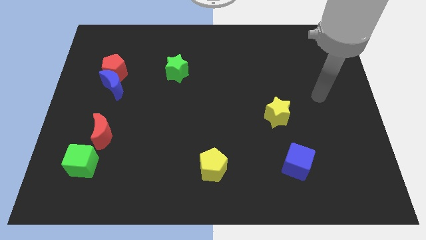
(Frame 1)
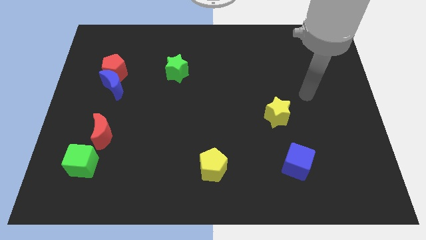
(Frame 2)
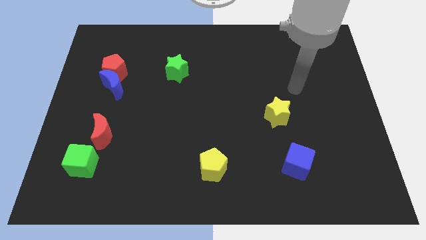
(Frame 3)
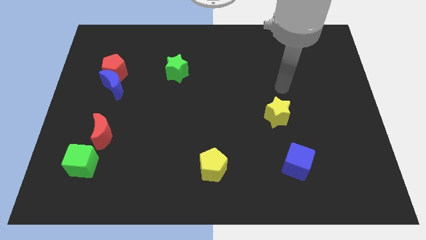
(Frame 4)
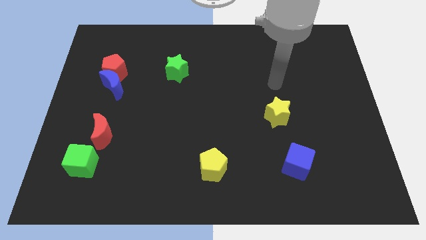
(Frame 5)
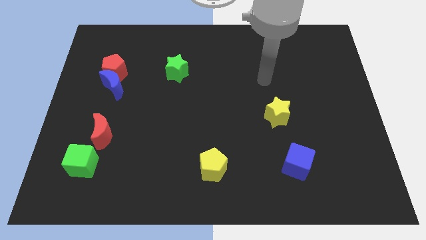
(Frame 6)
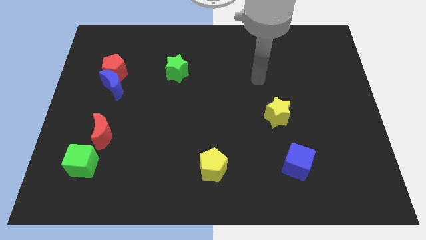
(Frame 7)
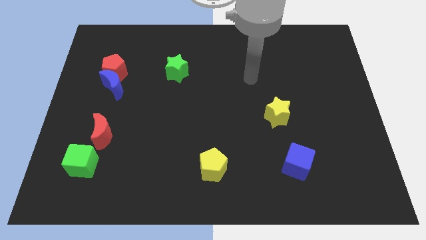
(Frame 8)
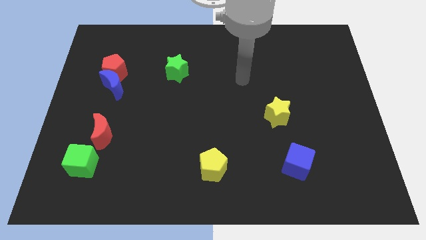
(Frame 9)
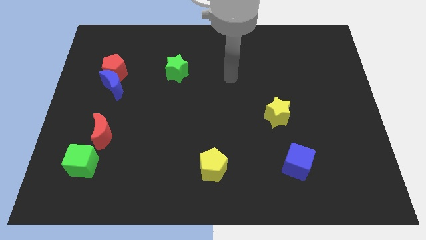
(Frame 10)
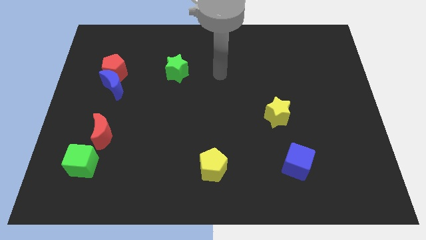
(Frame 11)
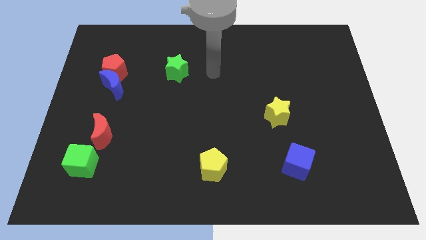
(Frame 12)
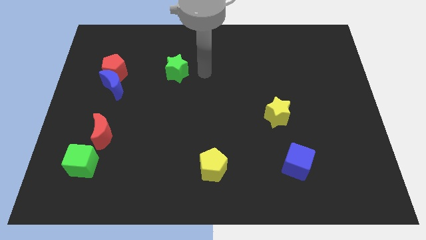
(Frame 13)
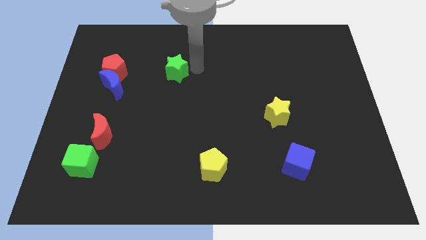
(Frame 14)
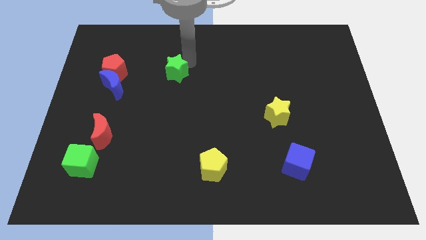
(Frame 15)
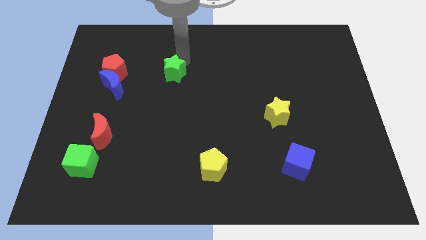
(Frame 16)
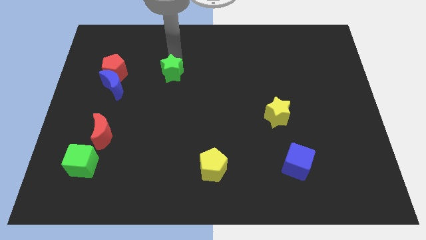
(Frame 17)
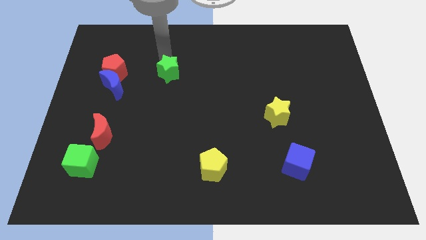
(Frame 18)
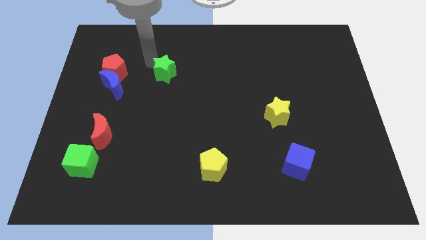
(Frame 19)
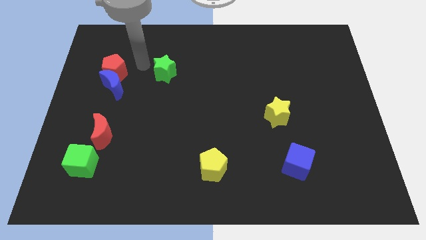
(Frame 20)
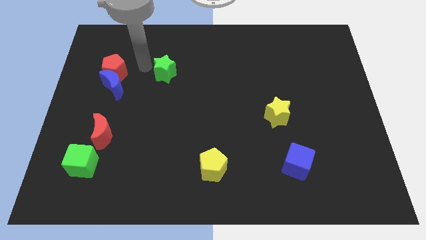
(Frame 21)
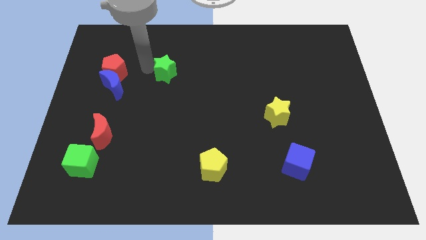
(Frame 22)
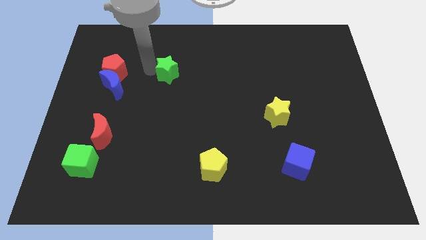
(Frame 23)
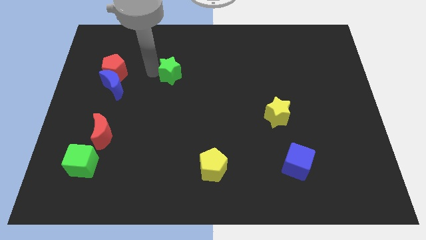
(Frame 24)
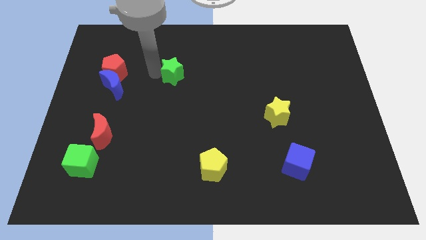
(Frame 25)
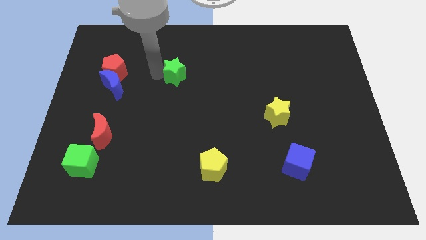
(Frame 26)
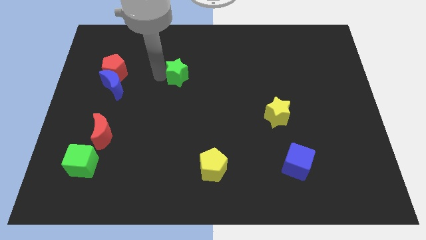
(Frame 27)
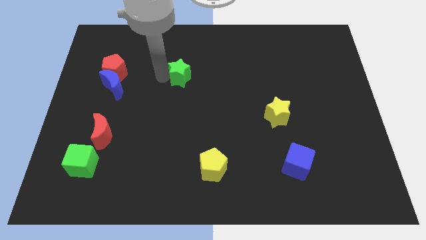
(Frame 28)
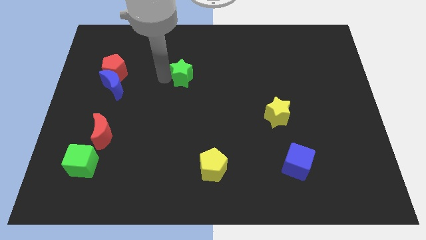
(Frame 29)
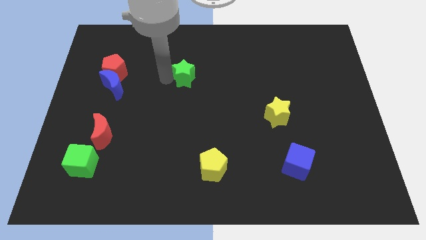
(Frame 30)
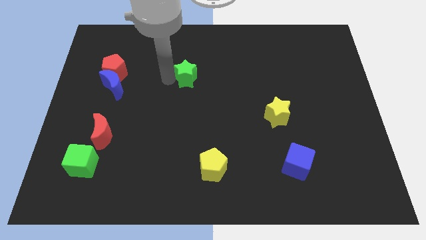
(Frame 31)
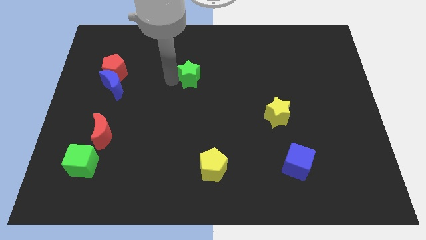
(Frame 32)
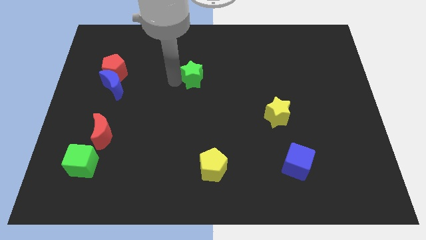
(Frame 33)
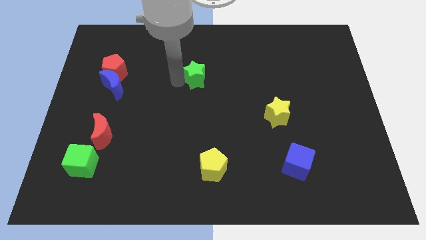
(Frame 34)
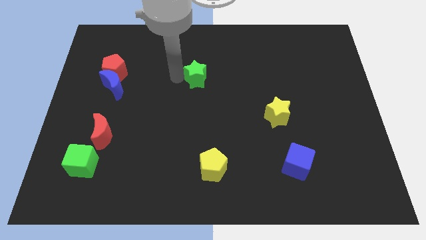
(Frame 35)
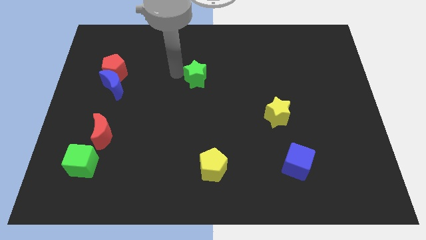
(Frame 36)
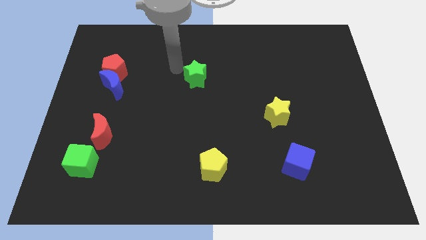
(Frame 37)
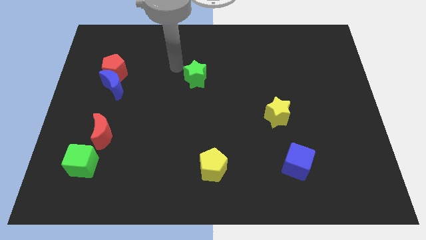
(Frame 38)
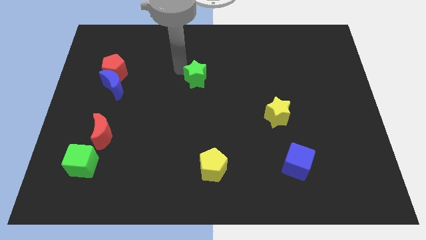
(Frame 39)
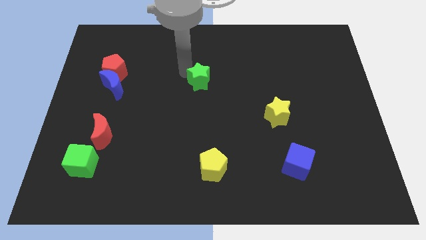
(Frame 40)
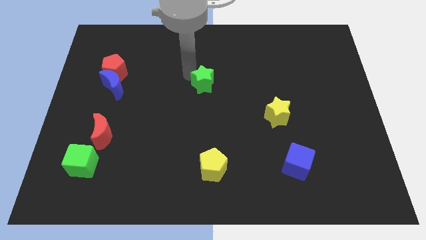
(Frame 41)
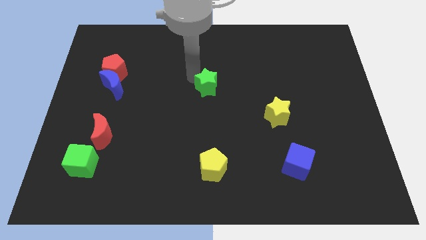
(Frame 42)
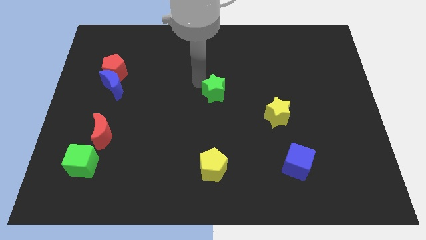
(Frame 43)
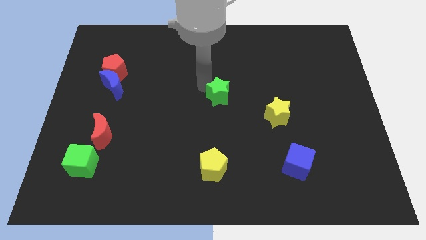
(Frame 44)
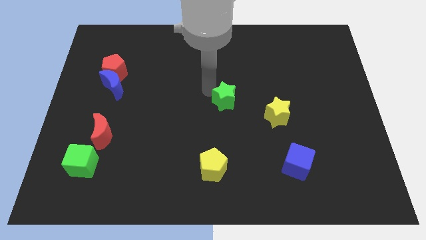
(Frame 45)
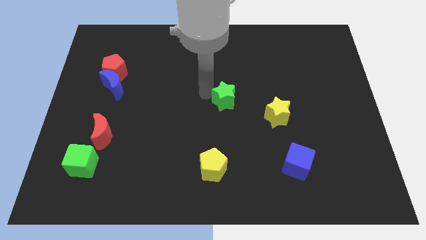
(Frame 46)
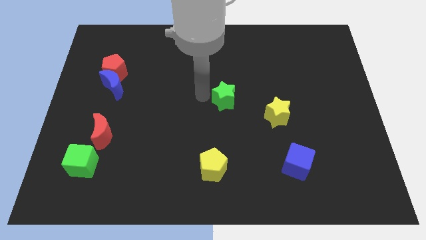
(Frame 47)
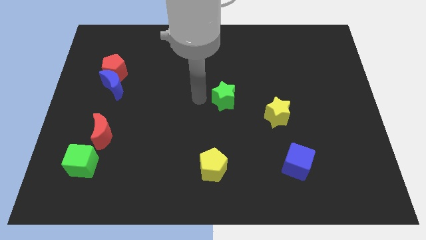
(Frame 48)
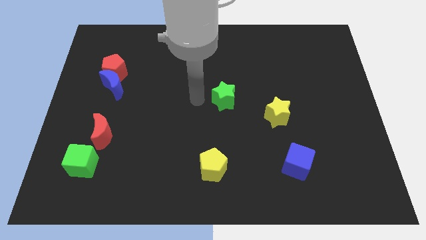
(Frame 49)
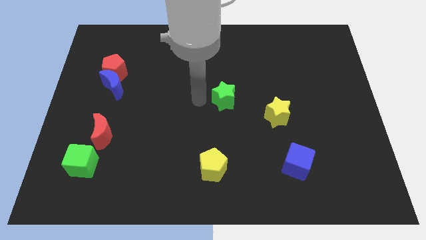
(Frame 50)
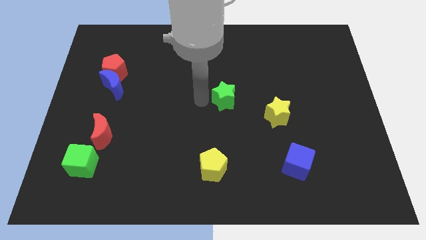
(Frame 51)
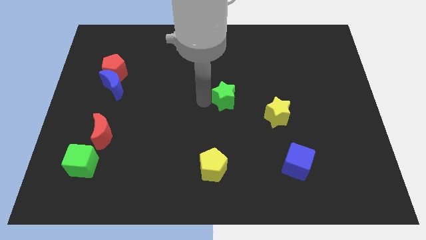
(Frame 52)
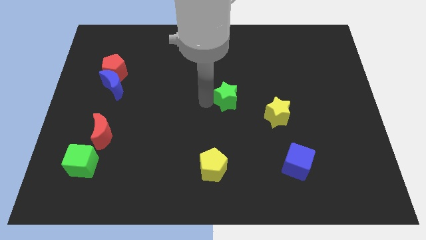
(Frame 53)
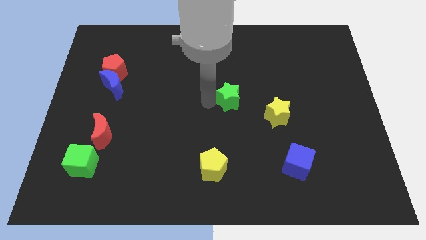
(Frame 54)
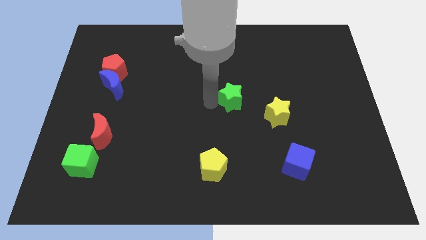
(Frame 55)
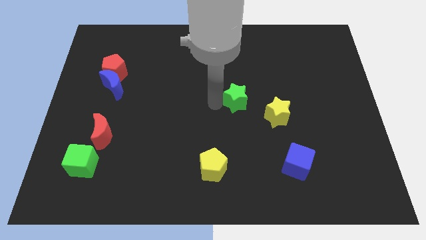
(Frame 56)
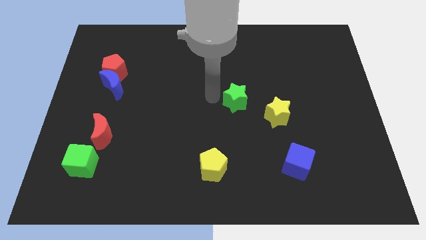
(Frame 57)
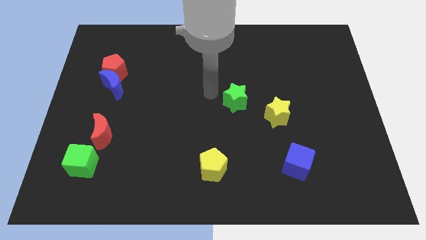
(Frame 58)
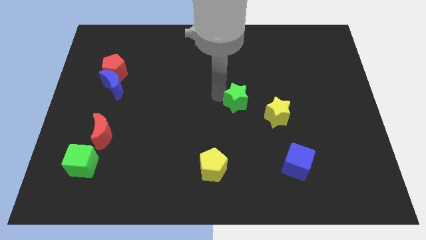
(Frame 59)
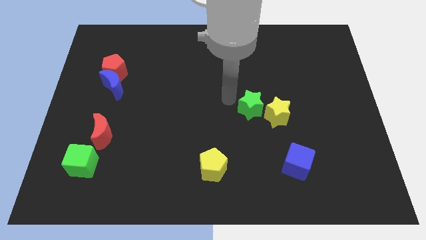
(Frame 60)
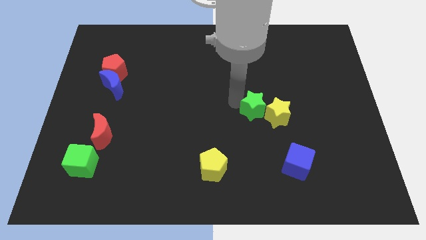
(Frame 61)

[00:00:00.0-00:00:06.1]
slide the green star to the yellow star

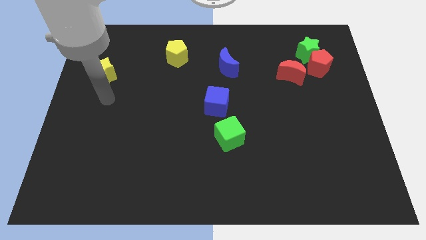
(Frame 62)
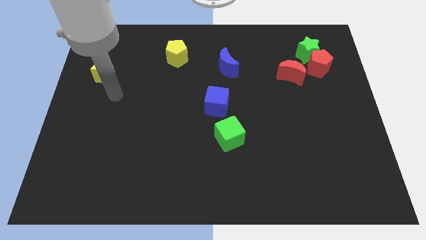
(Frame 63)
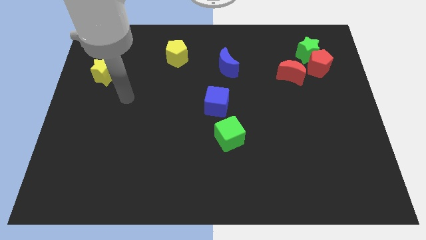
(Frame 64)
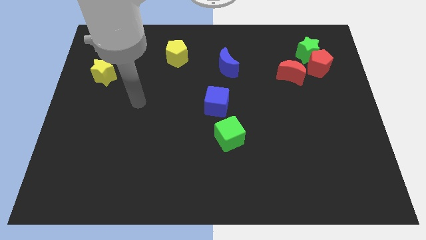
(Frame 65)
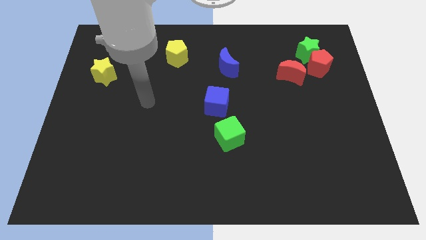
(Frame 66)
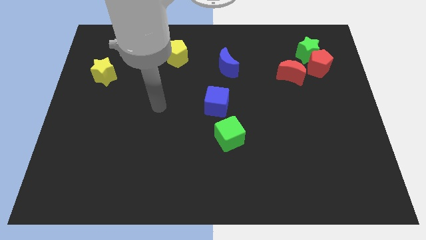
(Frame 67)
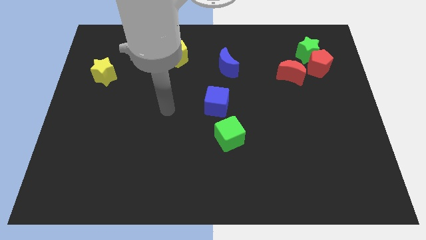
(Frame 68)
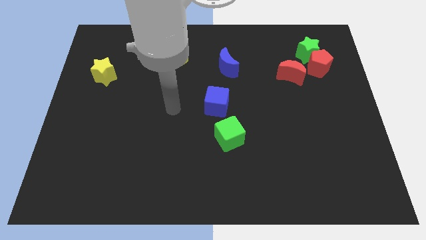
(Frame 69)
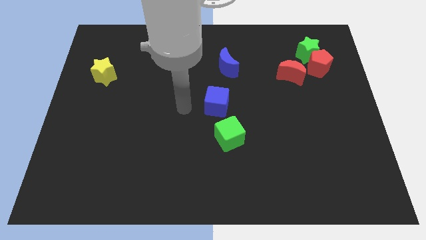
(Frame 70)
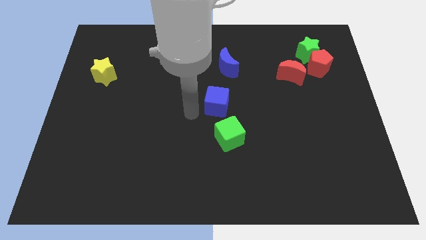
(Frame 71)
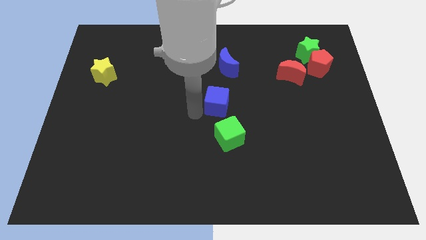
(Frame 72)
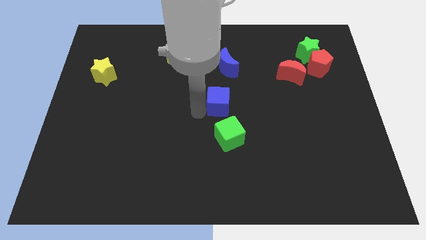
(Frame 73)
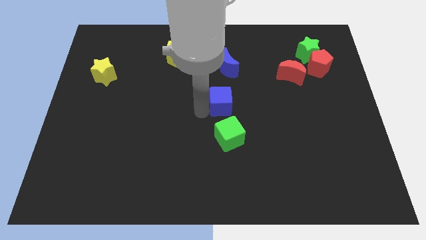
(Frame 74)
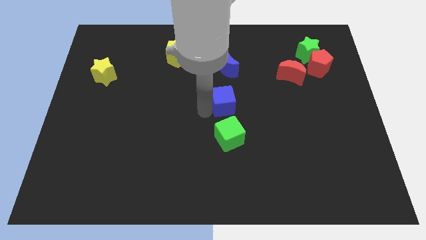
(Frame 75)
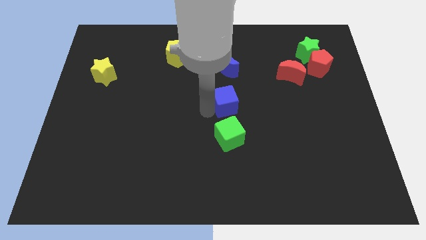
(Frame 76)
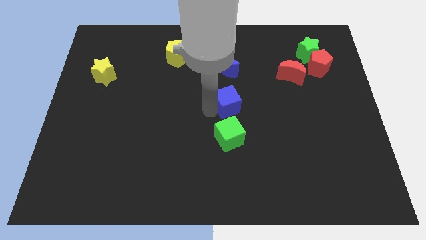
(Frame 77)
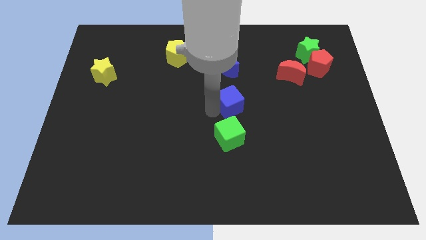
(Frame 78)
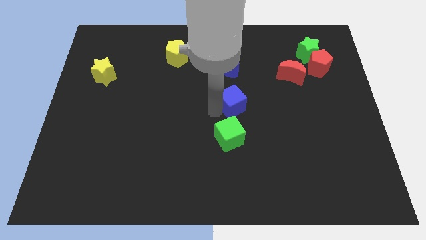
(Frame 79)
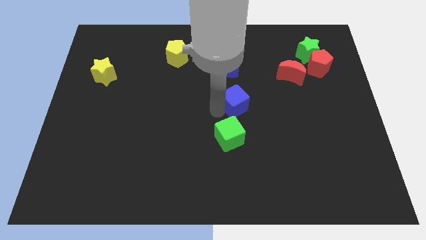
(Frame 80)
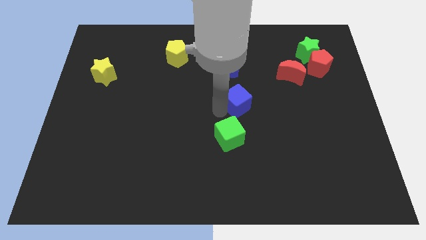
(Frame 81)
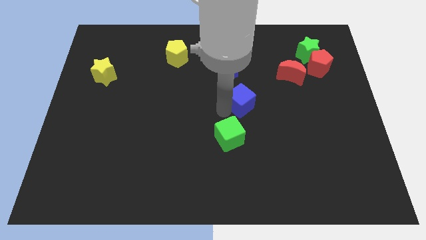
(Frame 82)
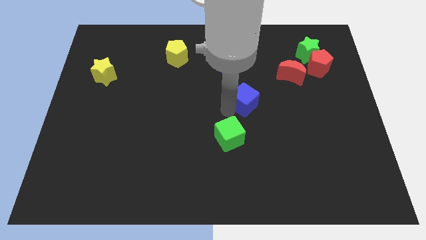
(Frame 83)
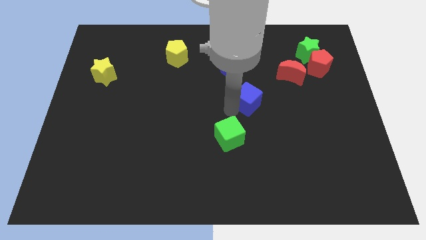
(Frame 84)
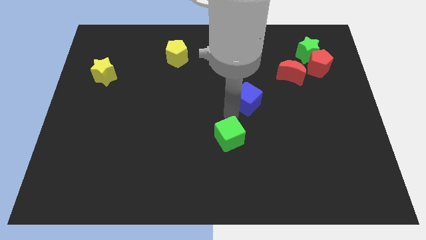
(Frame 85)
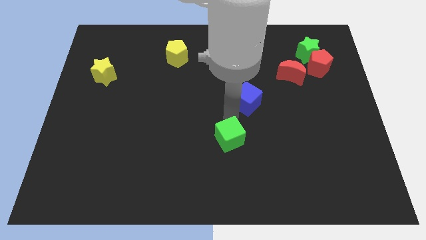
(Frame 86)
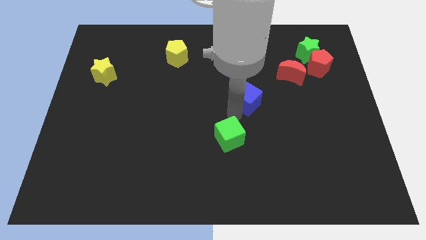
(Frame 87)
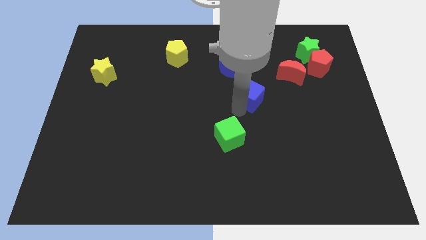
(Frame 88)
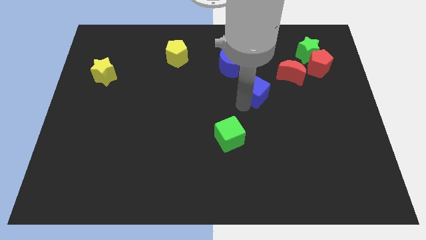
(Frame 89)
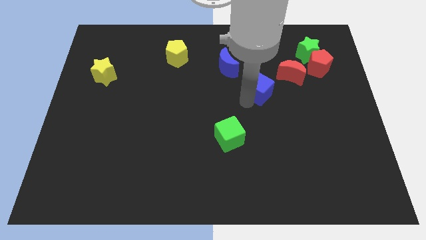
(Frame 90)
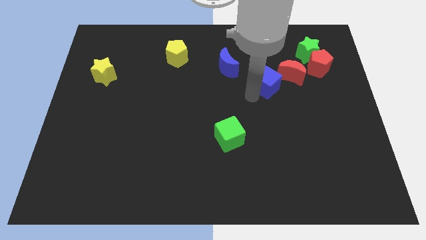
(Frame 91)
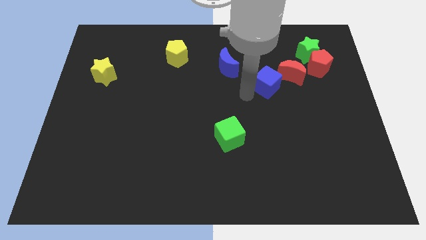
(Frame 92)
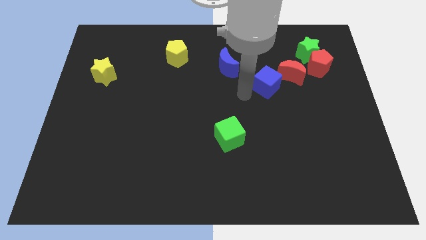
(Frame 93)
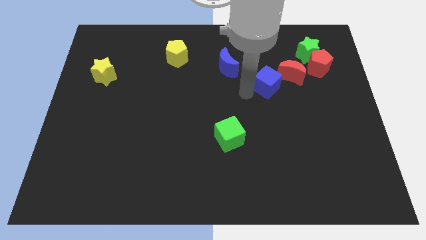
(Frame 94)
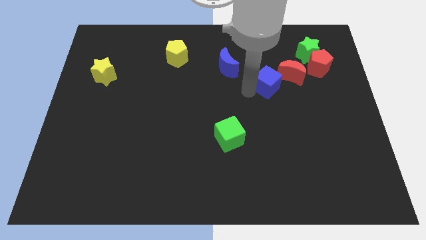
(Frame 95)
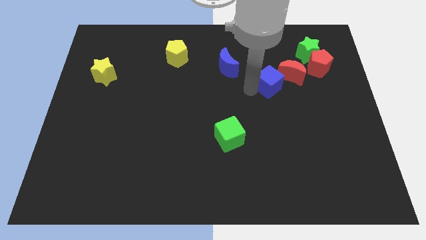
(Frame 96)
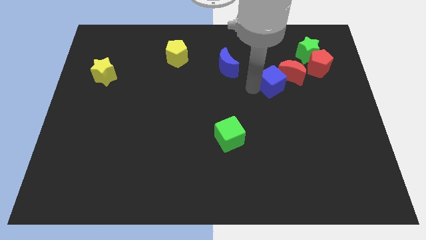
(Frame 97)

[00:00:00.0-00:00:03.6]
move the blue cube to the red moon
